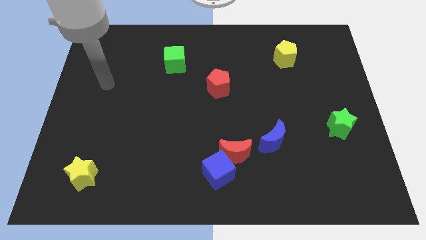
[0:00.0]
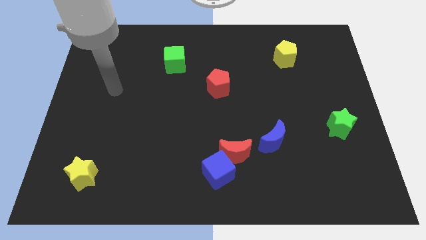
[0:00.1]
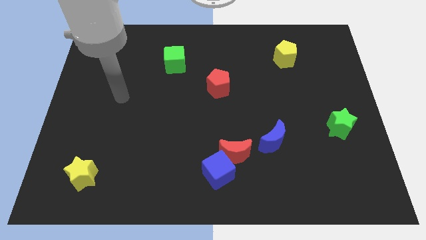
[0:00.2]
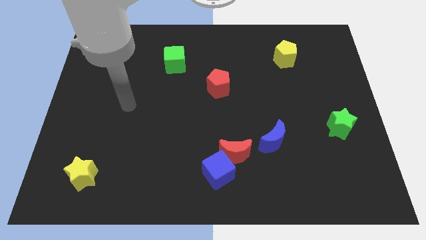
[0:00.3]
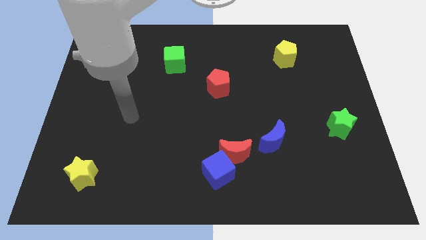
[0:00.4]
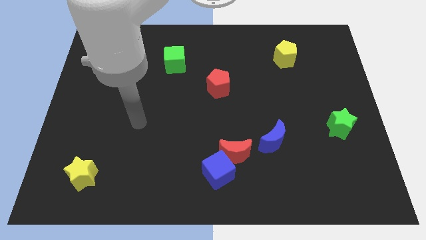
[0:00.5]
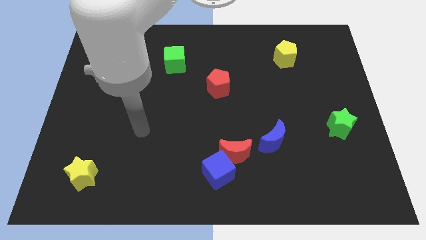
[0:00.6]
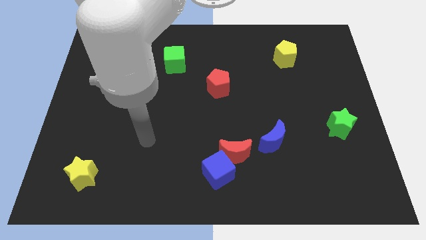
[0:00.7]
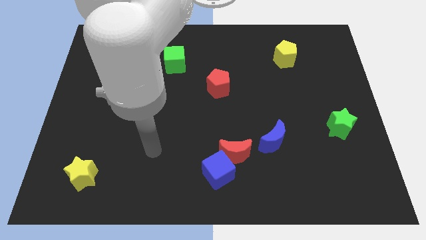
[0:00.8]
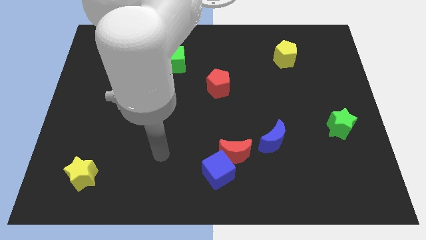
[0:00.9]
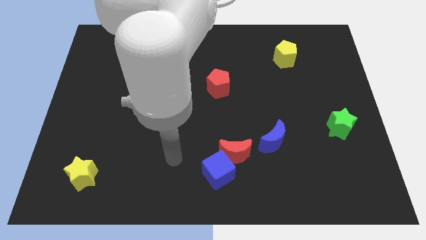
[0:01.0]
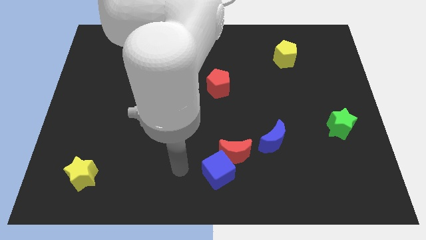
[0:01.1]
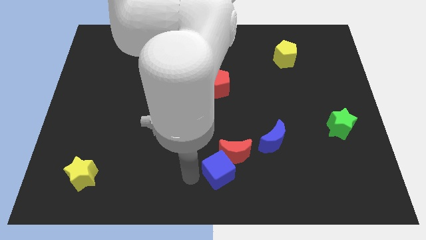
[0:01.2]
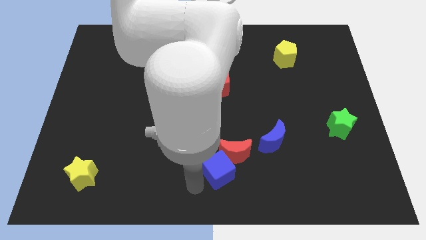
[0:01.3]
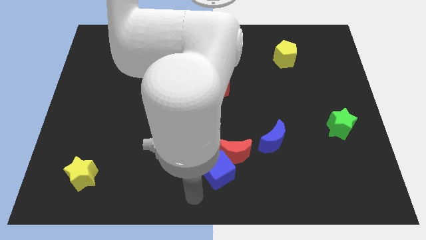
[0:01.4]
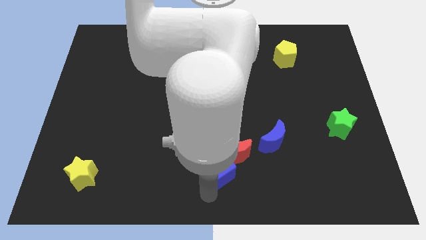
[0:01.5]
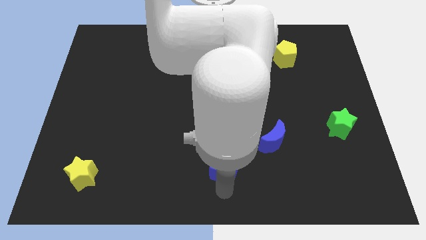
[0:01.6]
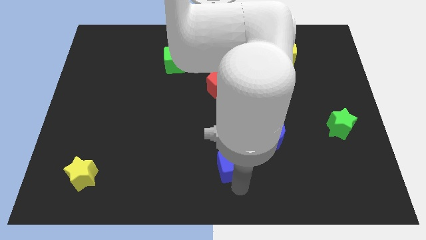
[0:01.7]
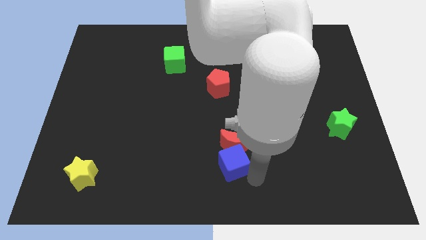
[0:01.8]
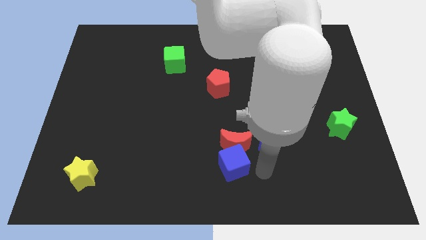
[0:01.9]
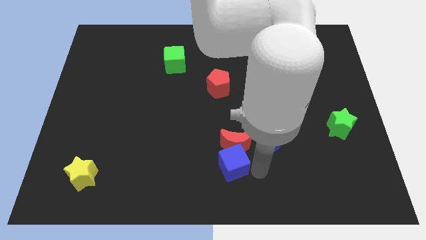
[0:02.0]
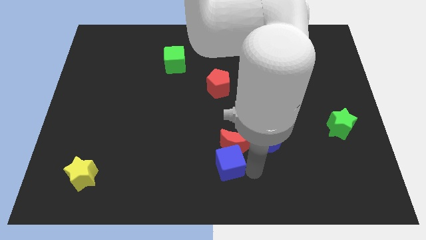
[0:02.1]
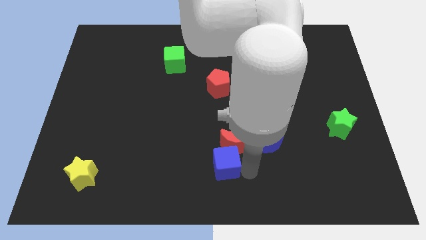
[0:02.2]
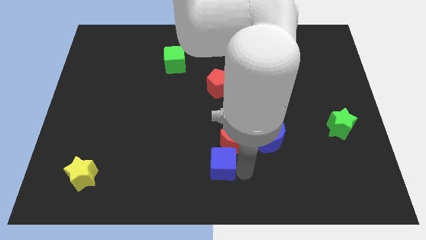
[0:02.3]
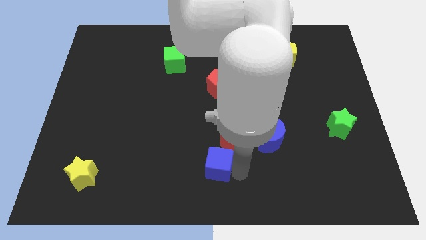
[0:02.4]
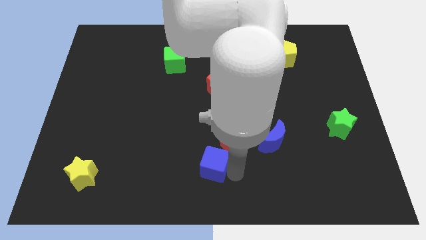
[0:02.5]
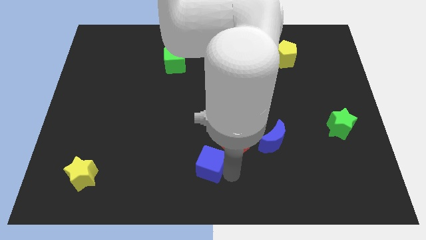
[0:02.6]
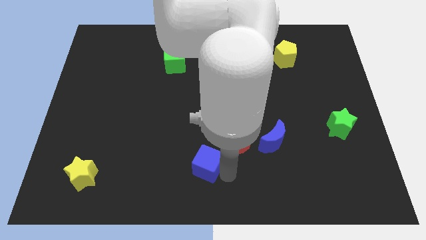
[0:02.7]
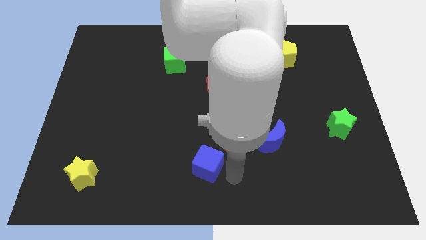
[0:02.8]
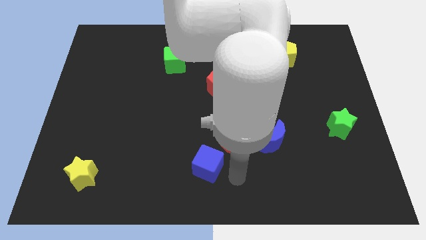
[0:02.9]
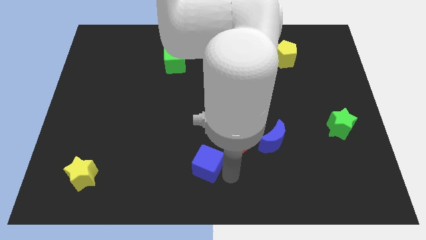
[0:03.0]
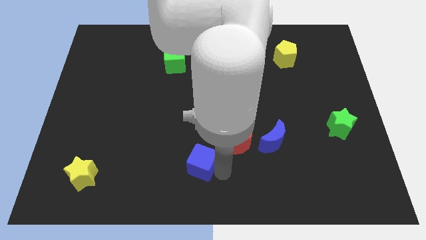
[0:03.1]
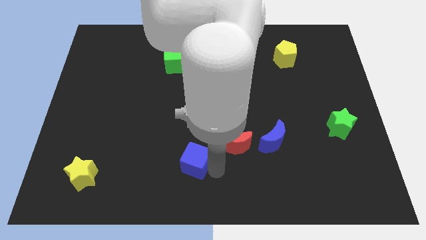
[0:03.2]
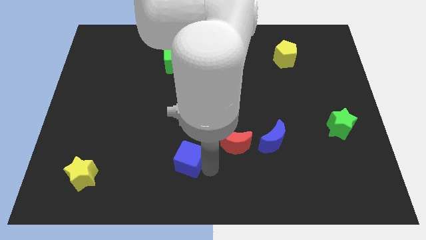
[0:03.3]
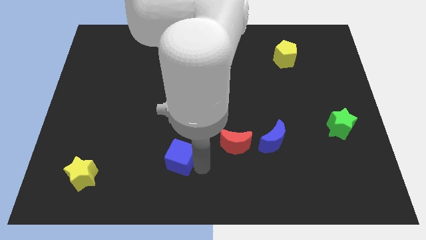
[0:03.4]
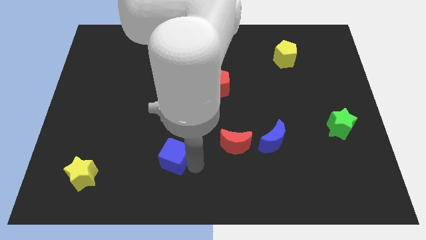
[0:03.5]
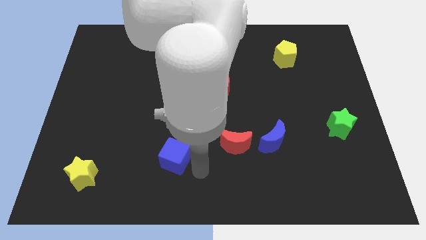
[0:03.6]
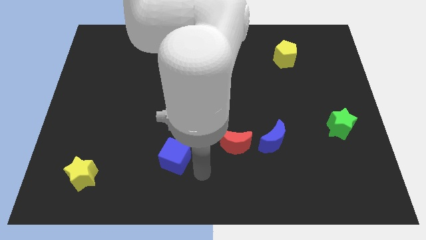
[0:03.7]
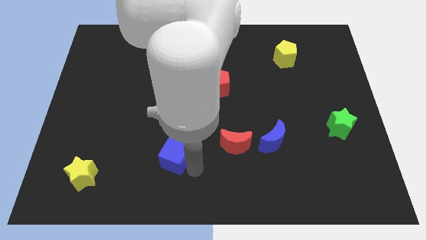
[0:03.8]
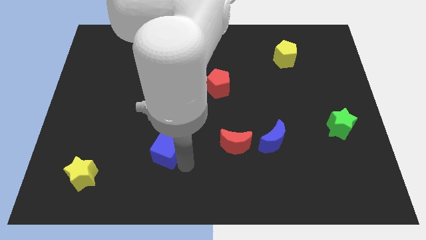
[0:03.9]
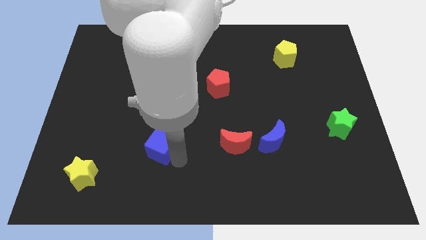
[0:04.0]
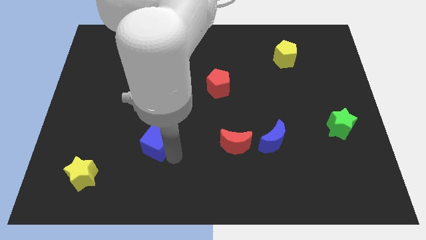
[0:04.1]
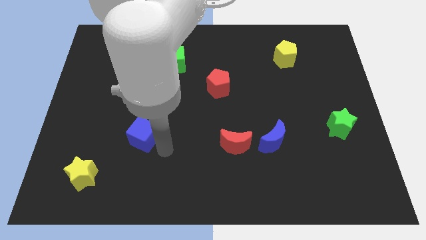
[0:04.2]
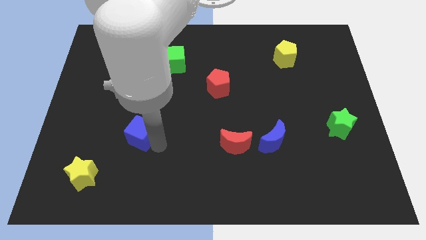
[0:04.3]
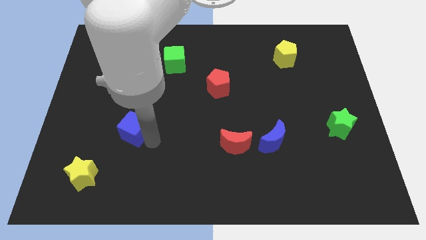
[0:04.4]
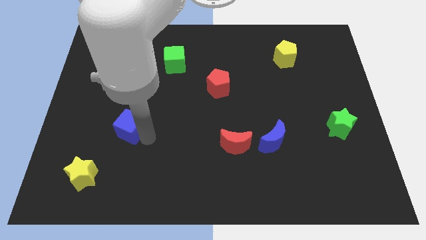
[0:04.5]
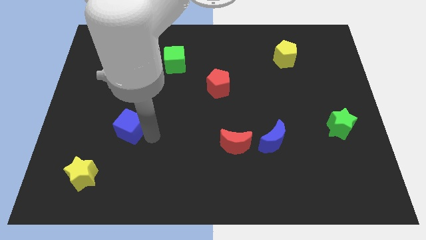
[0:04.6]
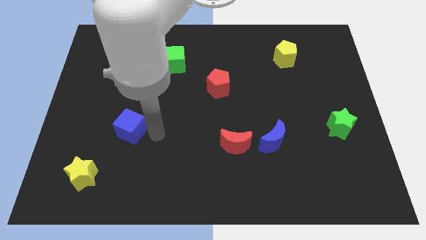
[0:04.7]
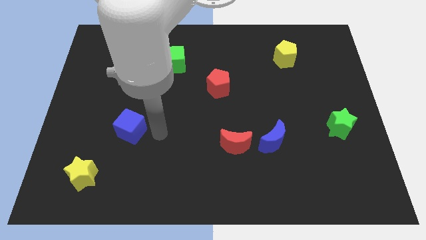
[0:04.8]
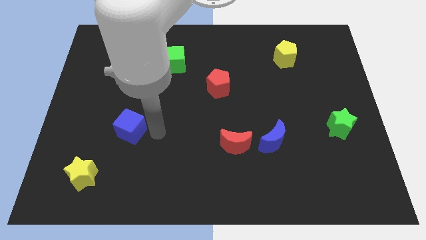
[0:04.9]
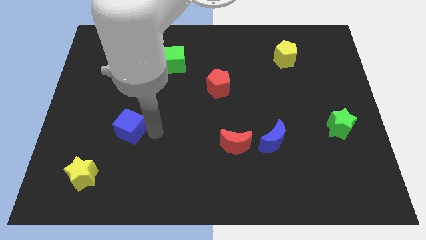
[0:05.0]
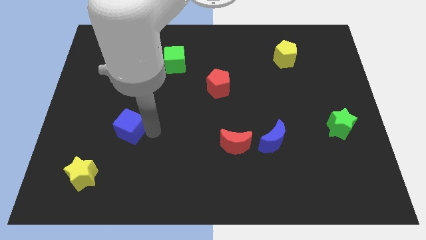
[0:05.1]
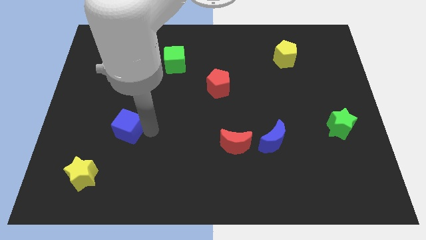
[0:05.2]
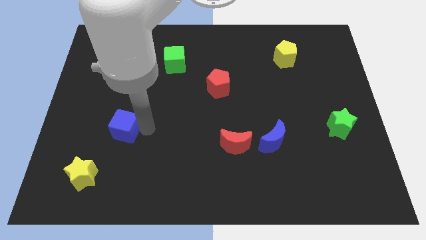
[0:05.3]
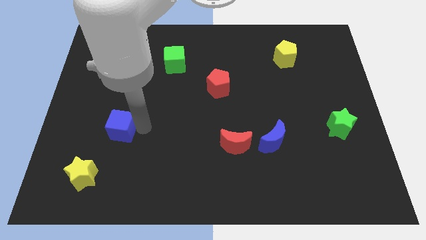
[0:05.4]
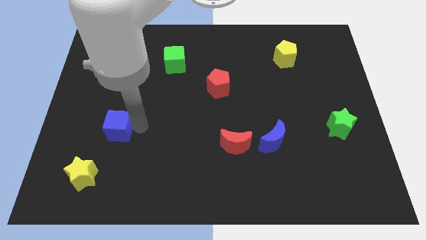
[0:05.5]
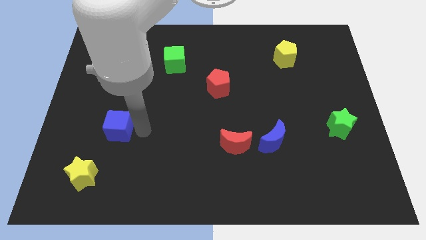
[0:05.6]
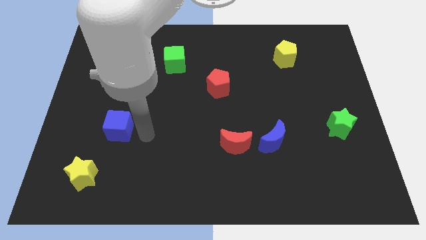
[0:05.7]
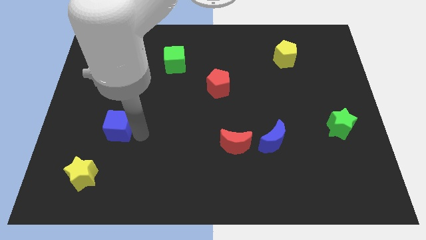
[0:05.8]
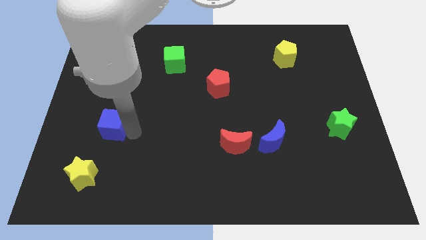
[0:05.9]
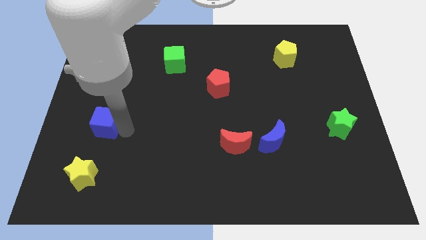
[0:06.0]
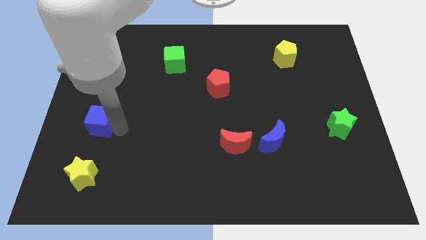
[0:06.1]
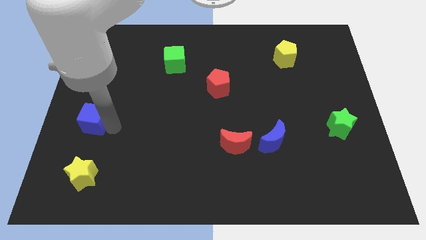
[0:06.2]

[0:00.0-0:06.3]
push the blue cube to the center left

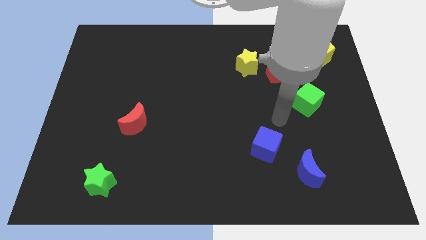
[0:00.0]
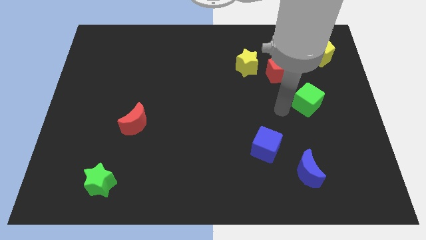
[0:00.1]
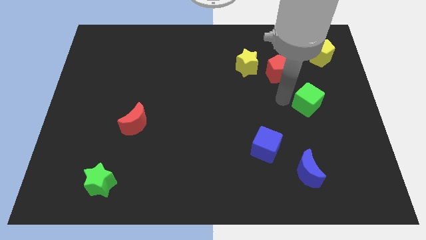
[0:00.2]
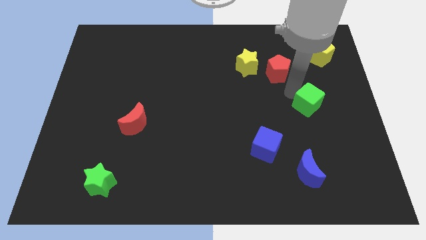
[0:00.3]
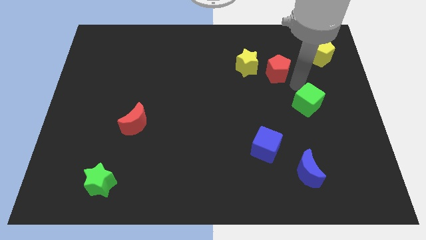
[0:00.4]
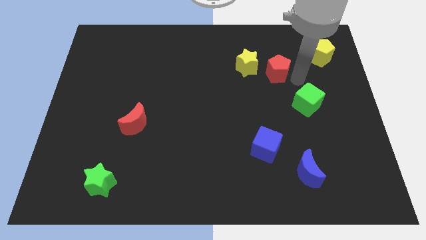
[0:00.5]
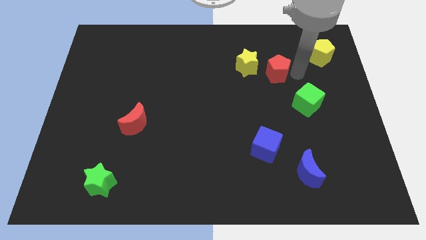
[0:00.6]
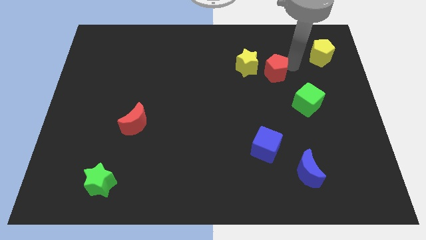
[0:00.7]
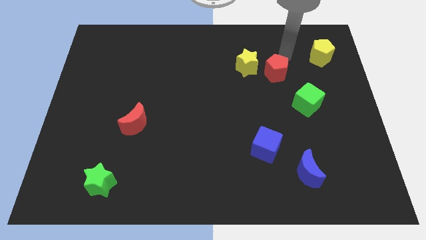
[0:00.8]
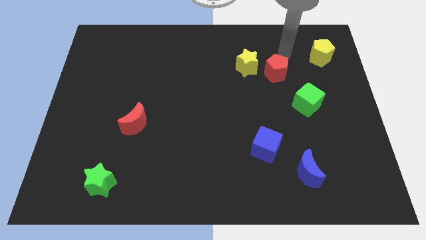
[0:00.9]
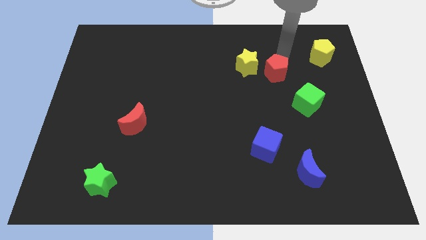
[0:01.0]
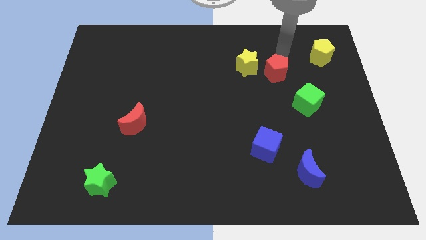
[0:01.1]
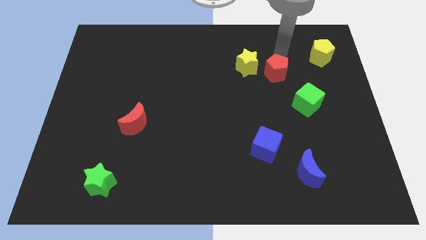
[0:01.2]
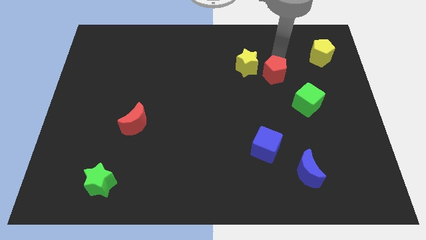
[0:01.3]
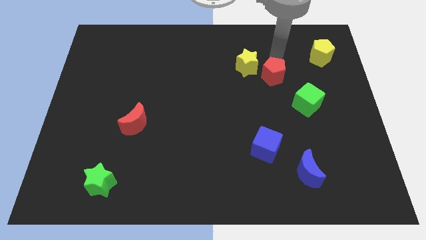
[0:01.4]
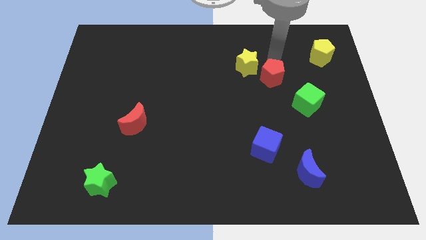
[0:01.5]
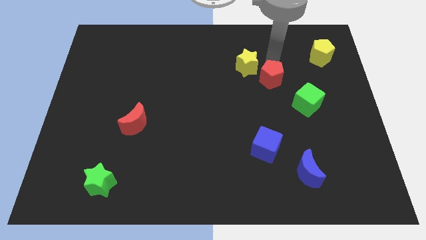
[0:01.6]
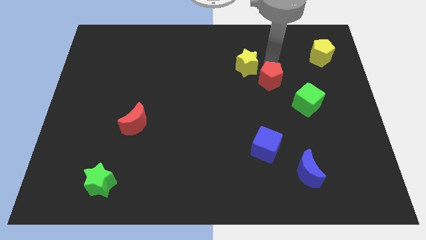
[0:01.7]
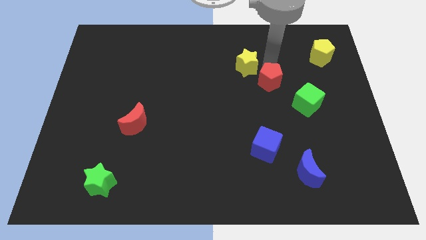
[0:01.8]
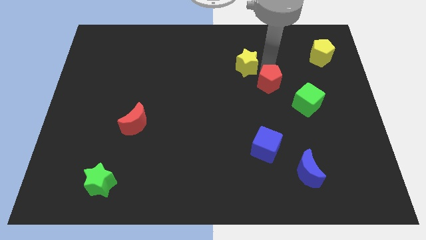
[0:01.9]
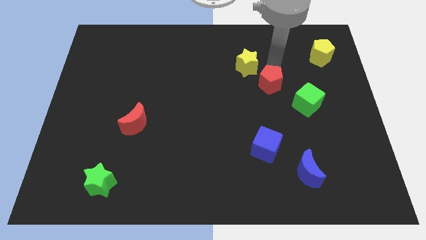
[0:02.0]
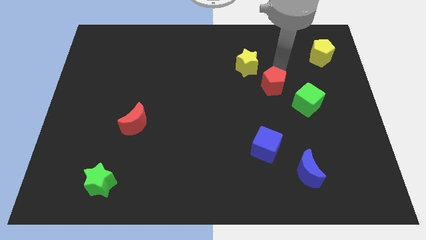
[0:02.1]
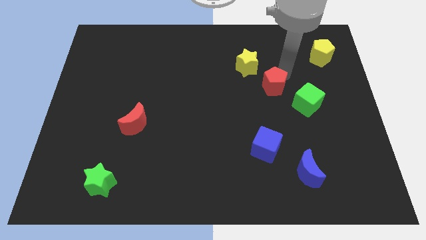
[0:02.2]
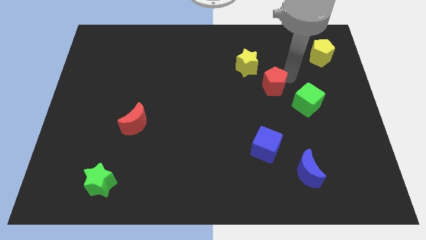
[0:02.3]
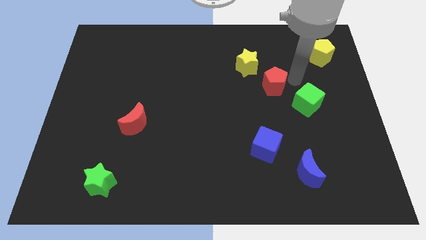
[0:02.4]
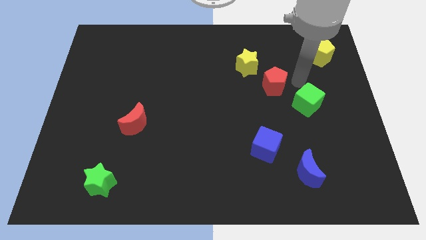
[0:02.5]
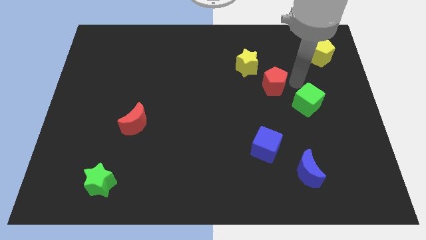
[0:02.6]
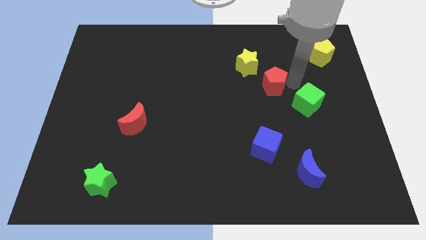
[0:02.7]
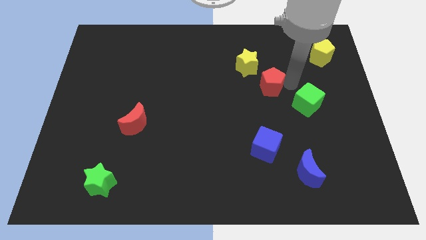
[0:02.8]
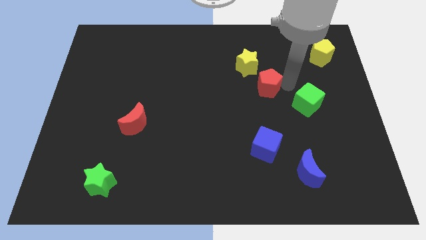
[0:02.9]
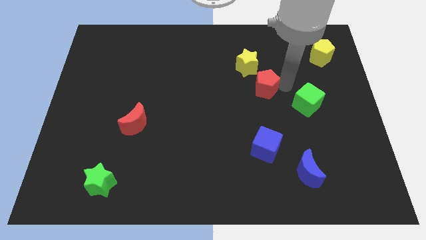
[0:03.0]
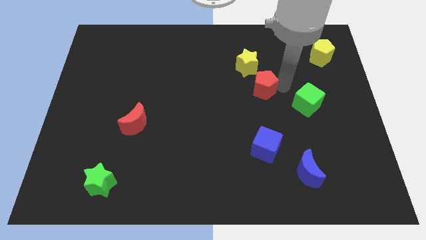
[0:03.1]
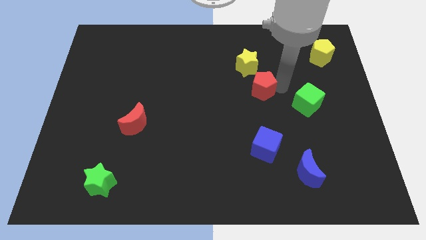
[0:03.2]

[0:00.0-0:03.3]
move the red pentagon to the center
